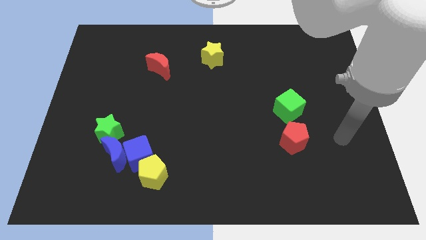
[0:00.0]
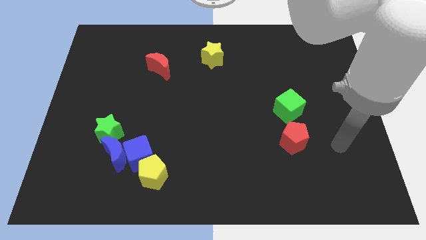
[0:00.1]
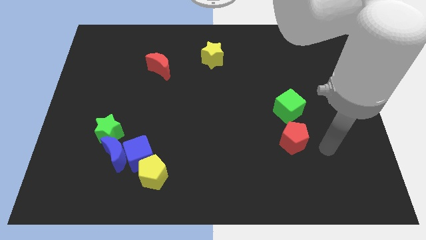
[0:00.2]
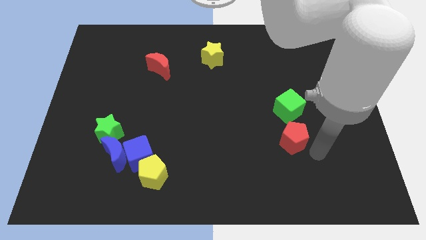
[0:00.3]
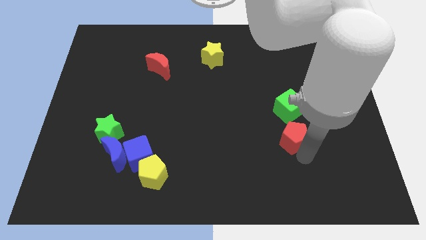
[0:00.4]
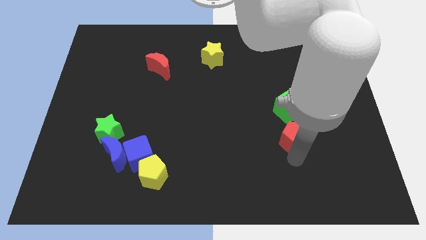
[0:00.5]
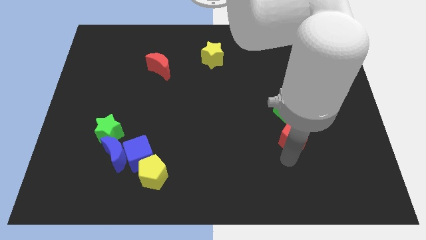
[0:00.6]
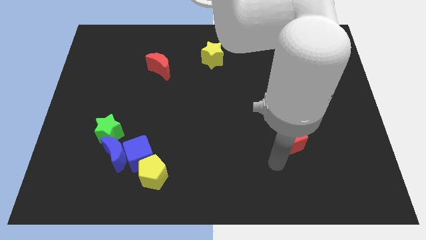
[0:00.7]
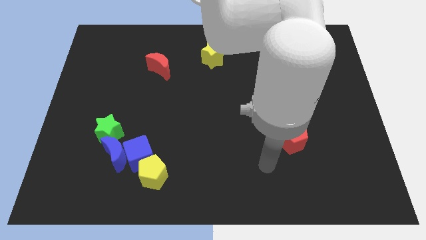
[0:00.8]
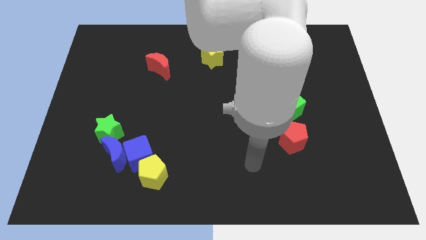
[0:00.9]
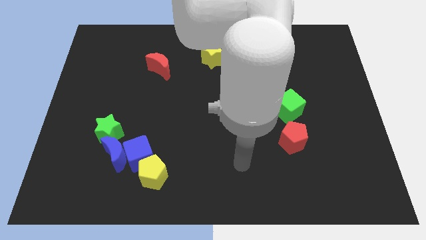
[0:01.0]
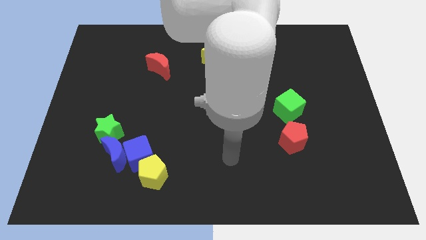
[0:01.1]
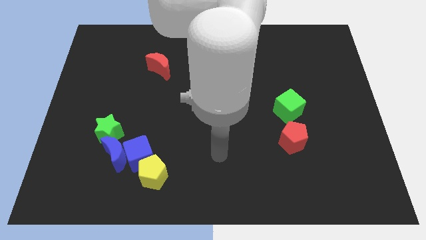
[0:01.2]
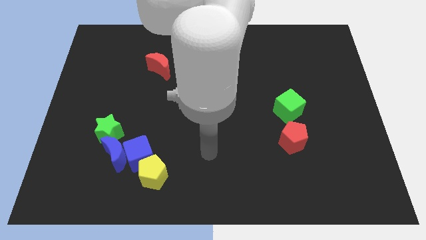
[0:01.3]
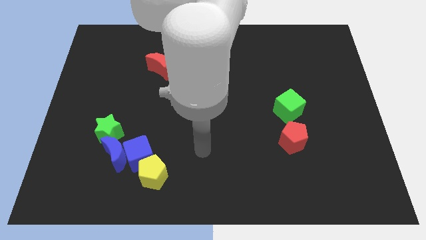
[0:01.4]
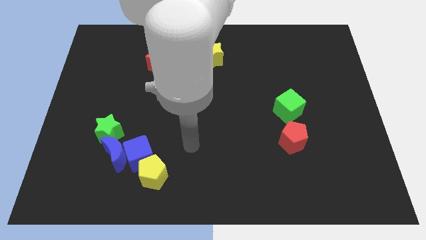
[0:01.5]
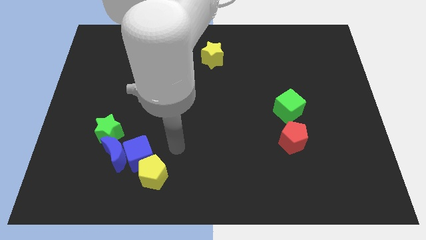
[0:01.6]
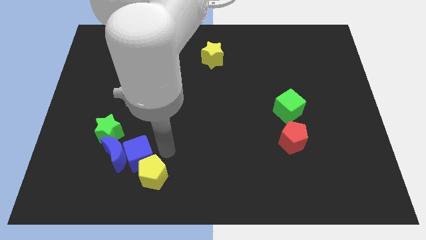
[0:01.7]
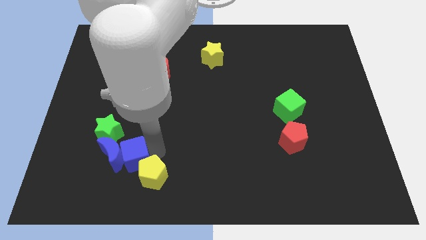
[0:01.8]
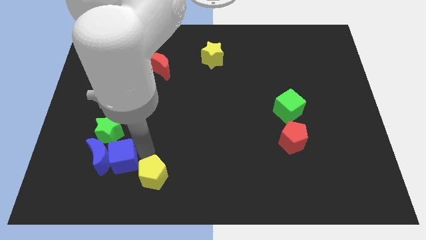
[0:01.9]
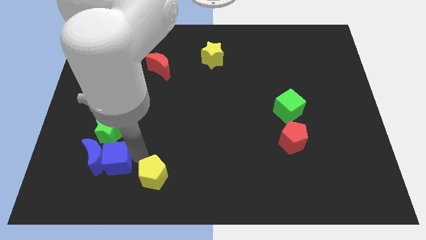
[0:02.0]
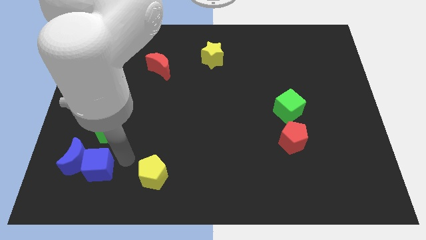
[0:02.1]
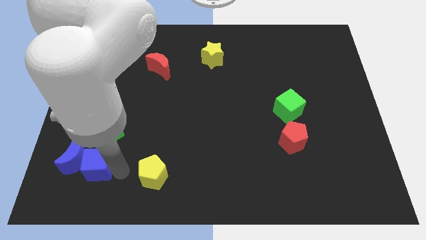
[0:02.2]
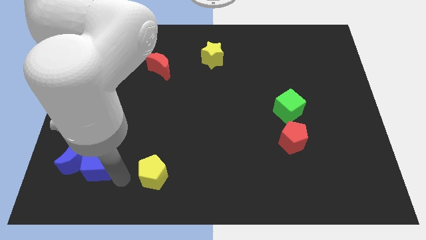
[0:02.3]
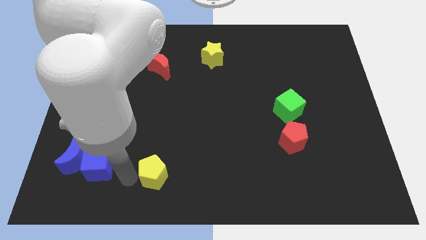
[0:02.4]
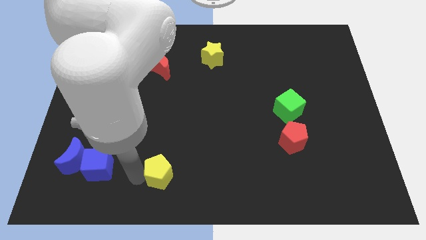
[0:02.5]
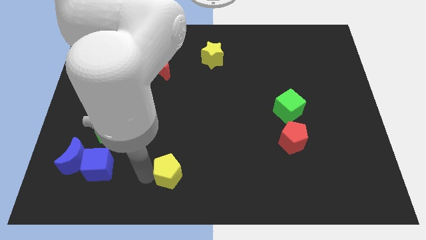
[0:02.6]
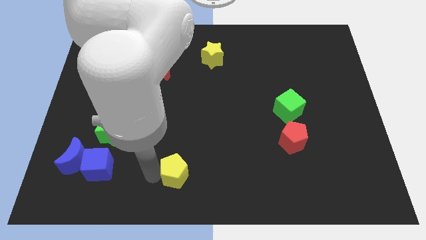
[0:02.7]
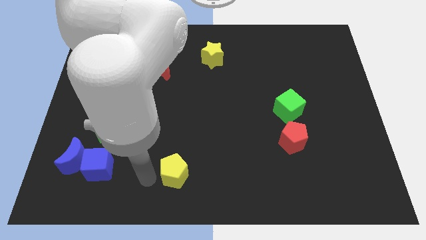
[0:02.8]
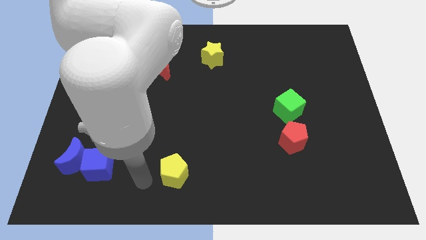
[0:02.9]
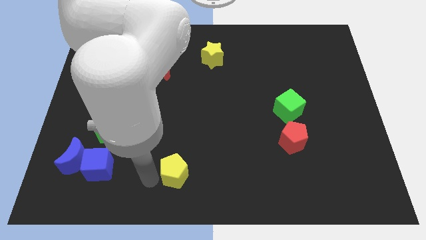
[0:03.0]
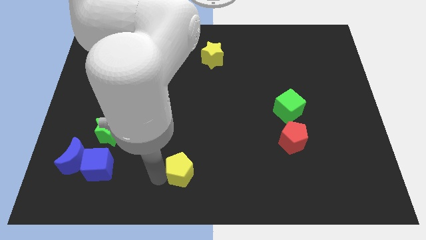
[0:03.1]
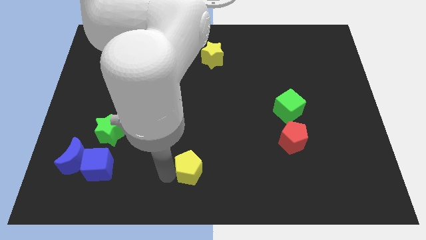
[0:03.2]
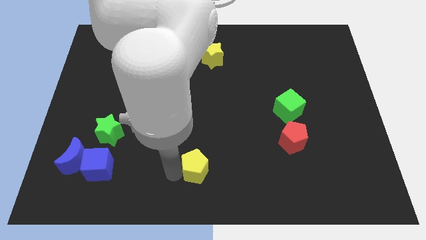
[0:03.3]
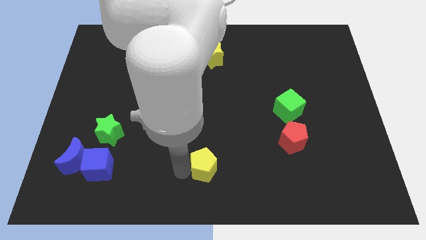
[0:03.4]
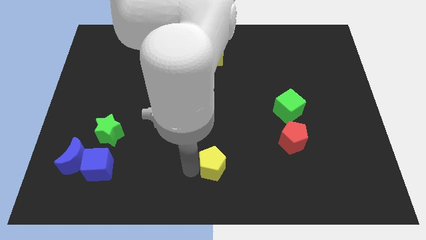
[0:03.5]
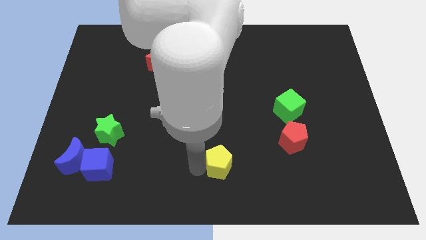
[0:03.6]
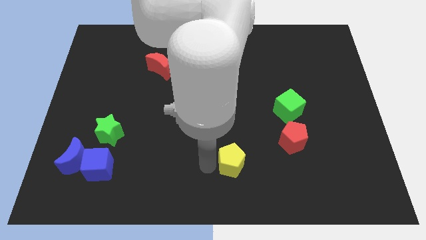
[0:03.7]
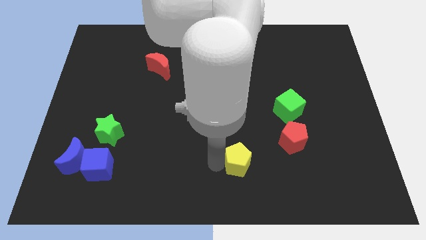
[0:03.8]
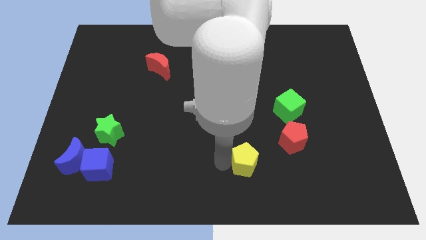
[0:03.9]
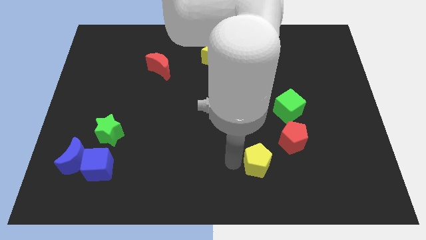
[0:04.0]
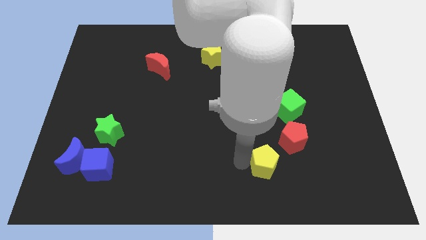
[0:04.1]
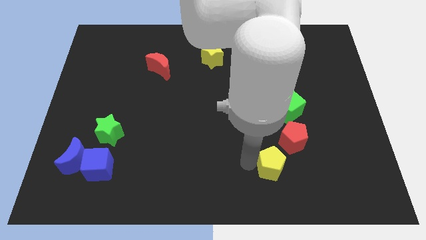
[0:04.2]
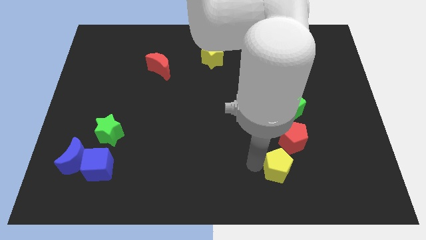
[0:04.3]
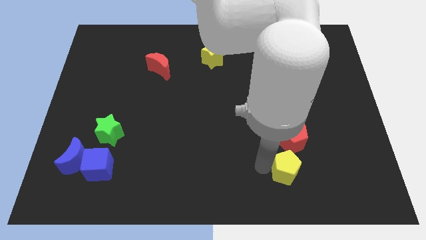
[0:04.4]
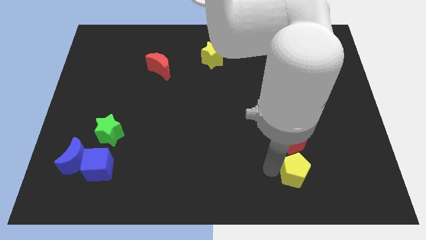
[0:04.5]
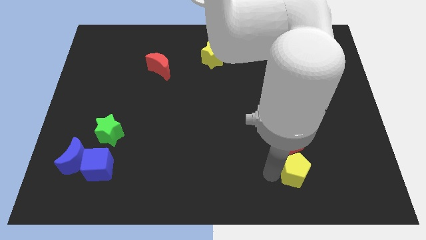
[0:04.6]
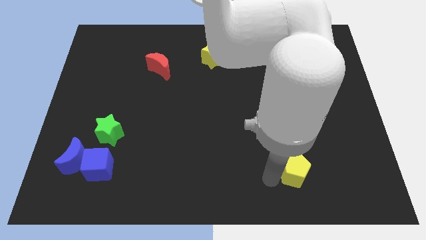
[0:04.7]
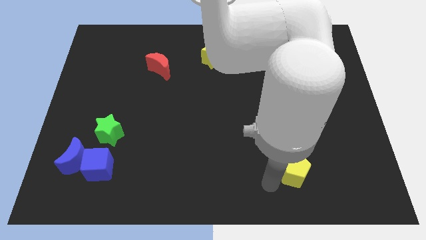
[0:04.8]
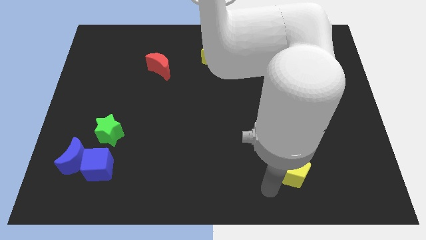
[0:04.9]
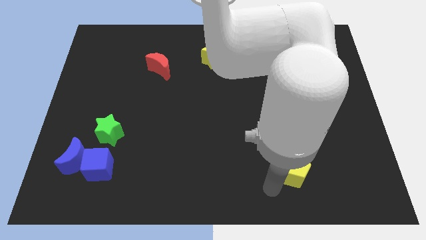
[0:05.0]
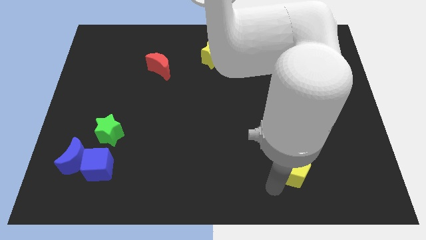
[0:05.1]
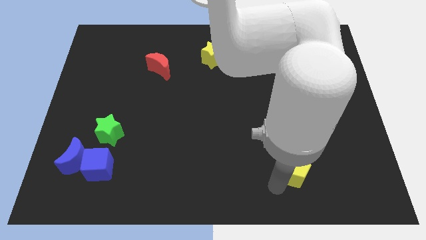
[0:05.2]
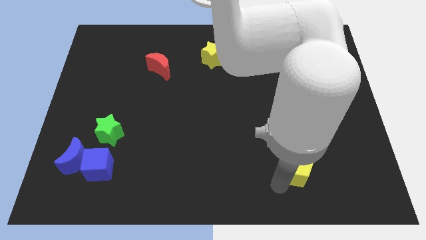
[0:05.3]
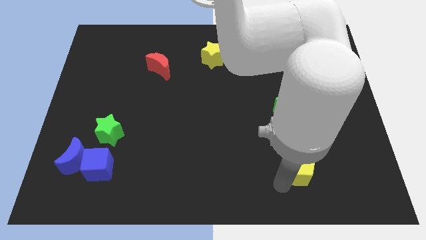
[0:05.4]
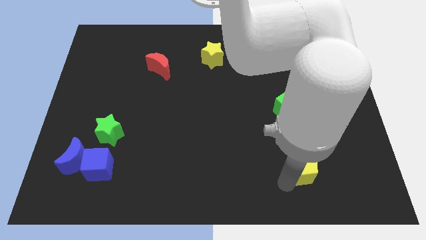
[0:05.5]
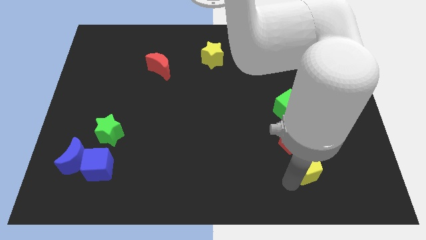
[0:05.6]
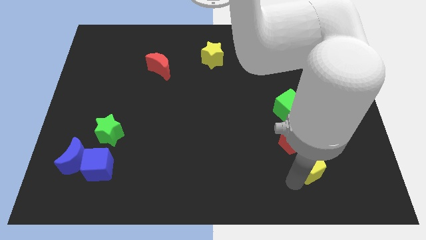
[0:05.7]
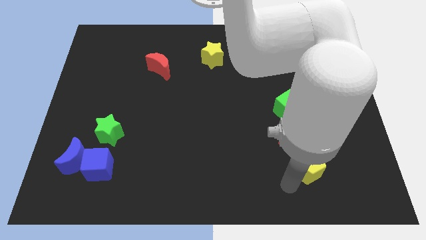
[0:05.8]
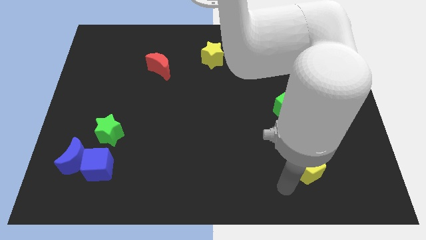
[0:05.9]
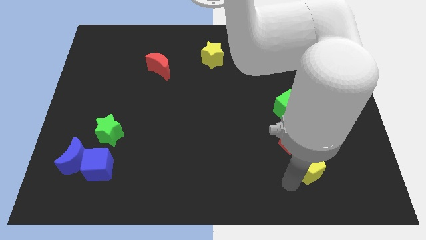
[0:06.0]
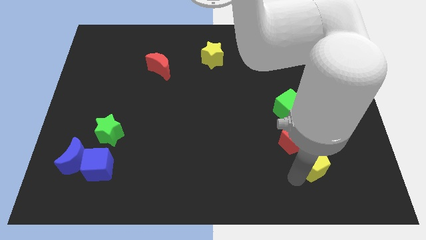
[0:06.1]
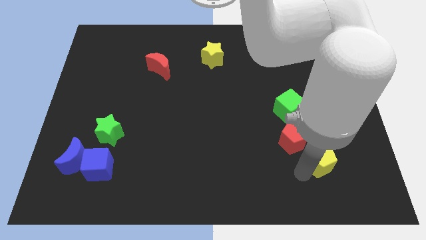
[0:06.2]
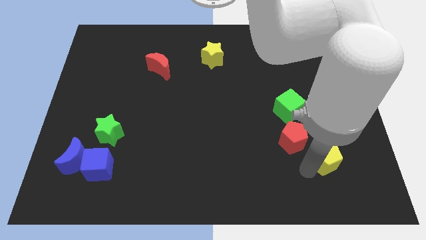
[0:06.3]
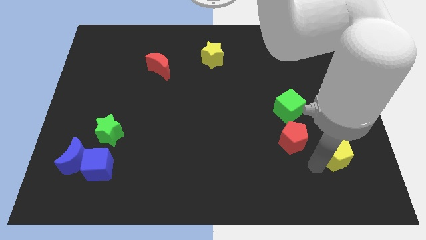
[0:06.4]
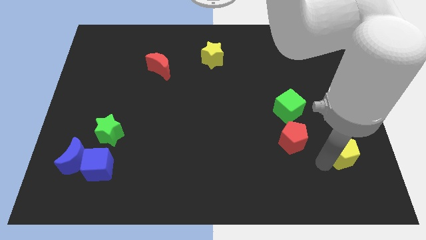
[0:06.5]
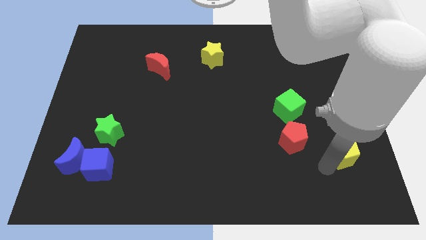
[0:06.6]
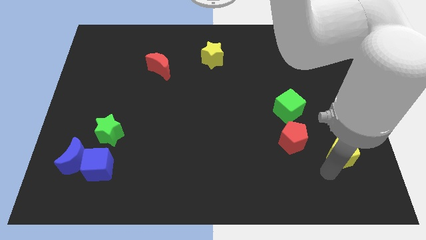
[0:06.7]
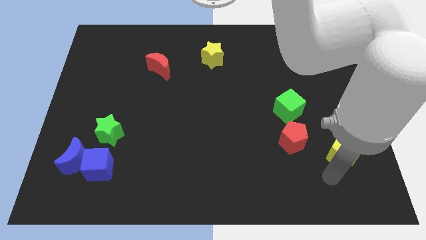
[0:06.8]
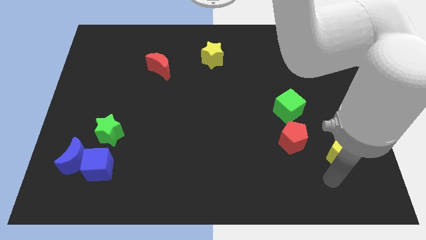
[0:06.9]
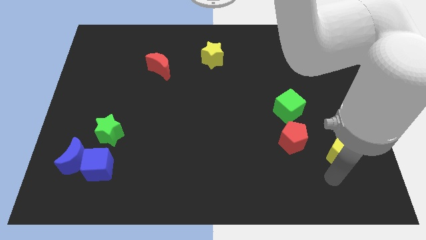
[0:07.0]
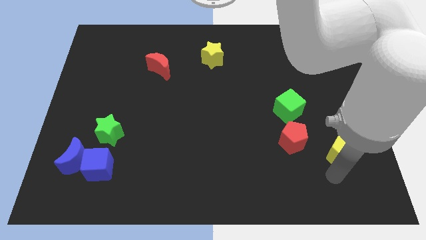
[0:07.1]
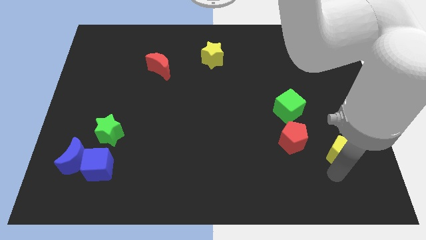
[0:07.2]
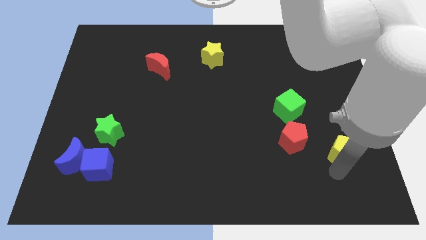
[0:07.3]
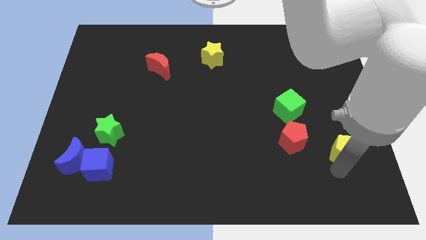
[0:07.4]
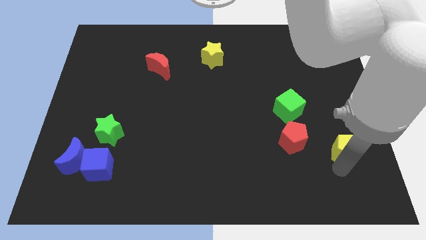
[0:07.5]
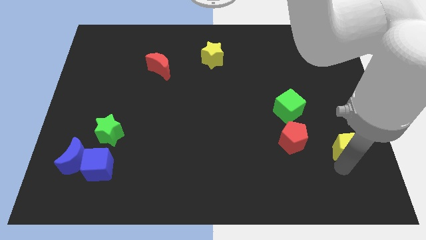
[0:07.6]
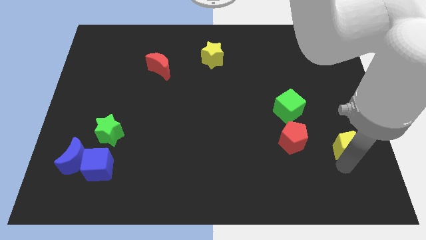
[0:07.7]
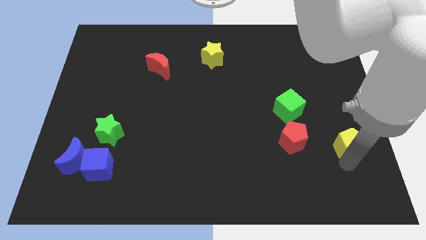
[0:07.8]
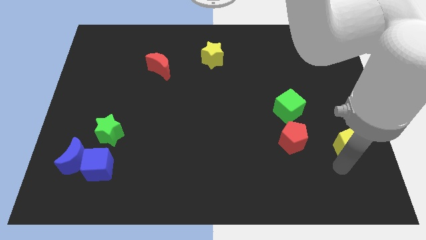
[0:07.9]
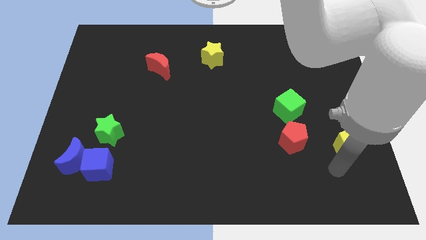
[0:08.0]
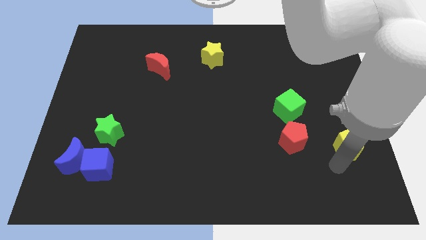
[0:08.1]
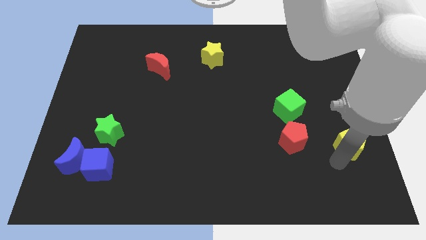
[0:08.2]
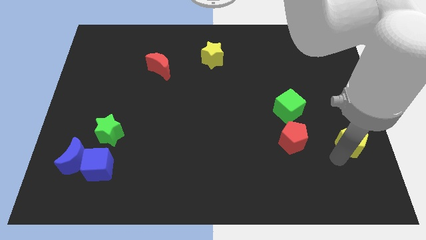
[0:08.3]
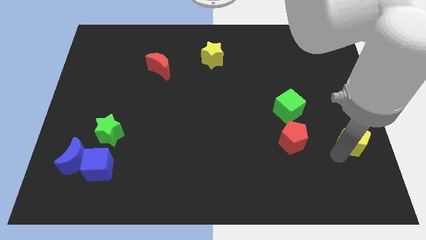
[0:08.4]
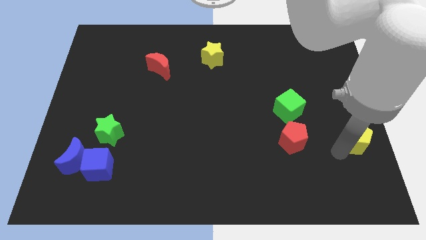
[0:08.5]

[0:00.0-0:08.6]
push the yellow pentagon to the right side
